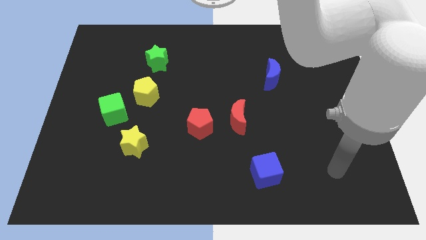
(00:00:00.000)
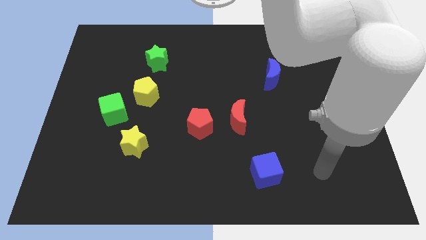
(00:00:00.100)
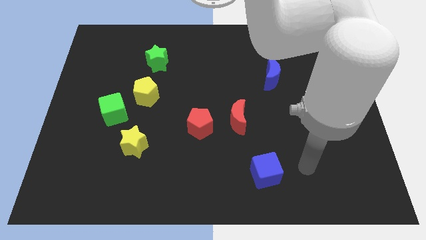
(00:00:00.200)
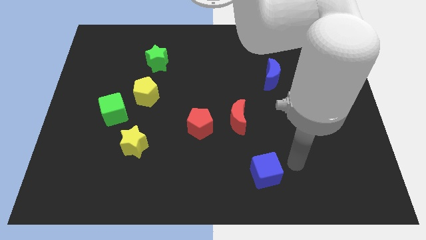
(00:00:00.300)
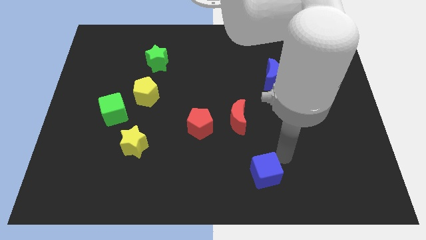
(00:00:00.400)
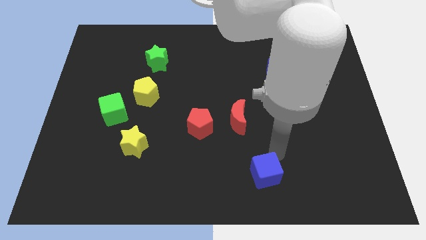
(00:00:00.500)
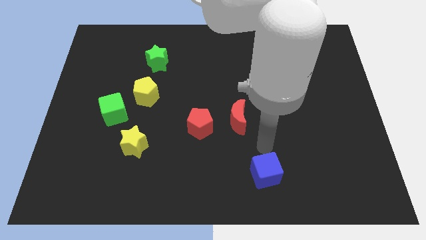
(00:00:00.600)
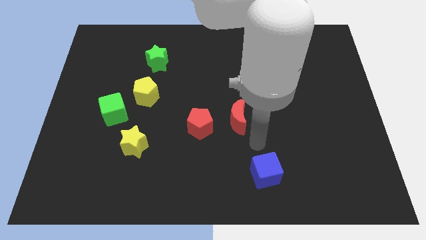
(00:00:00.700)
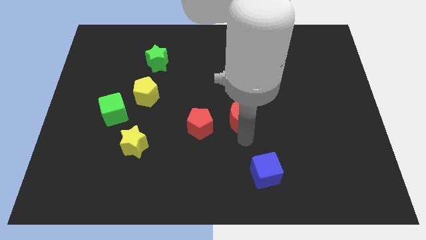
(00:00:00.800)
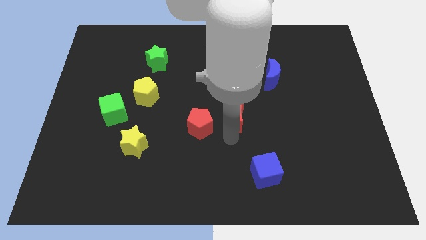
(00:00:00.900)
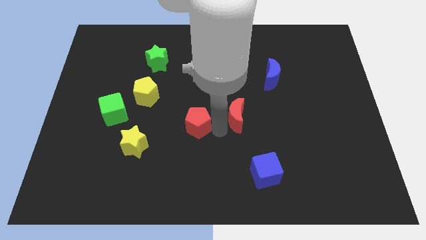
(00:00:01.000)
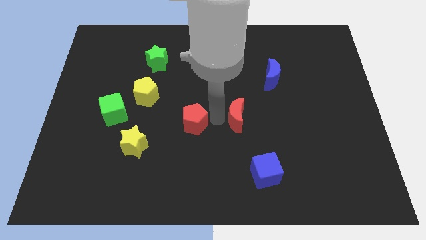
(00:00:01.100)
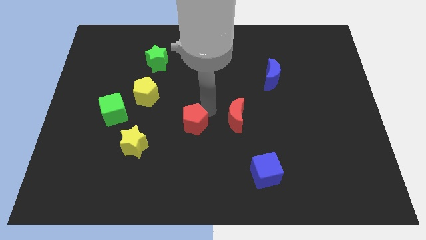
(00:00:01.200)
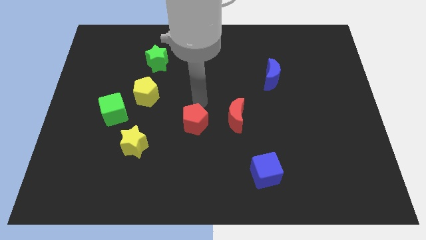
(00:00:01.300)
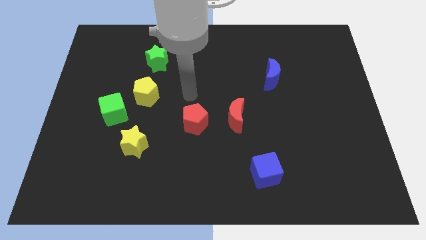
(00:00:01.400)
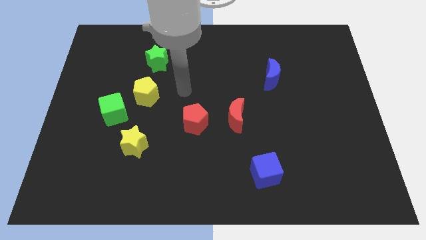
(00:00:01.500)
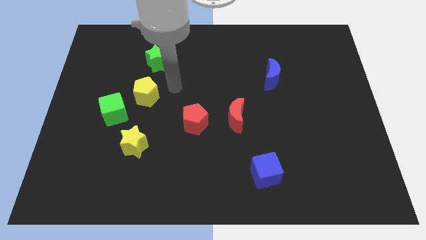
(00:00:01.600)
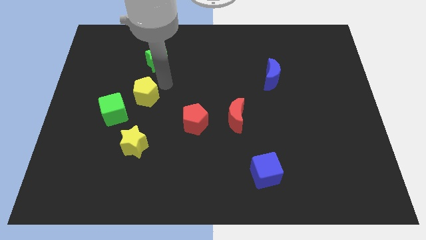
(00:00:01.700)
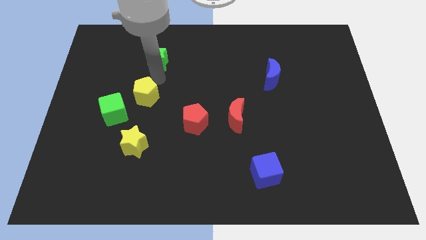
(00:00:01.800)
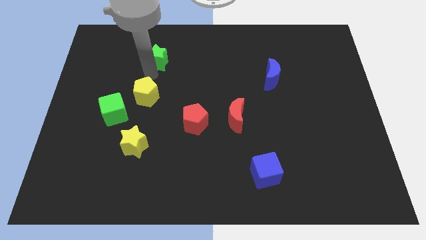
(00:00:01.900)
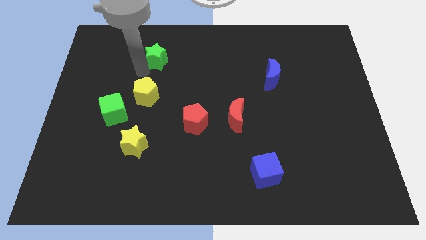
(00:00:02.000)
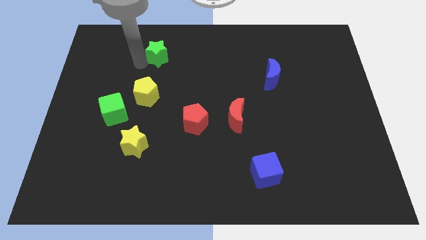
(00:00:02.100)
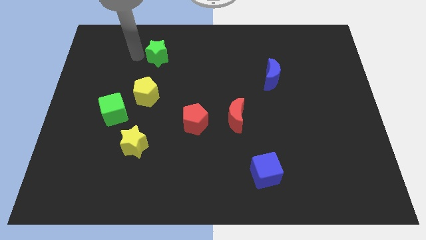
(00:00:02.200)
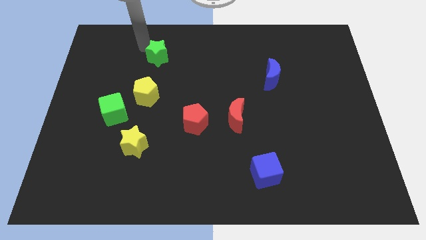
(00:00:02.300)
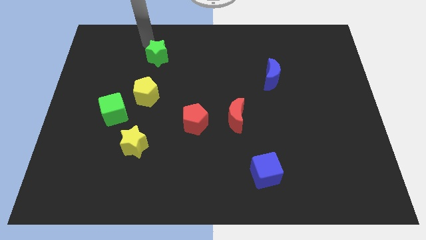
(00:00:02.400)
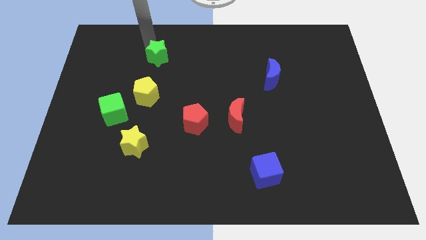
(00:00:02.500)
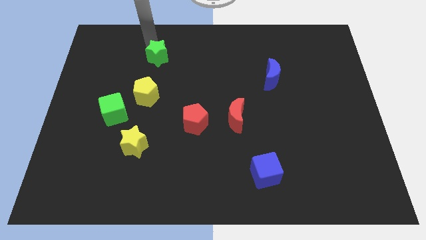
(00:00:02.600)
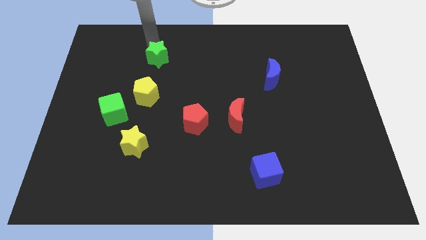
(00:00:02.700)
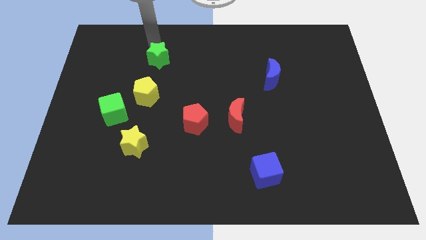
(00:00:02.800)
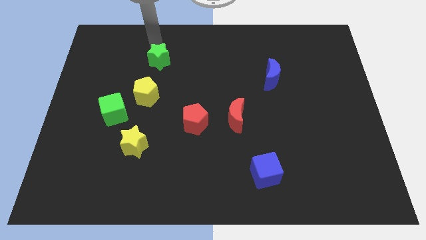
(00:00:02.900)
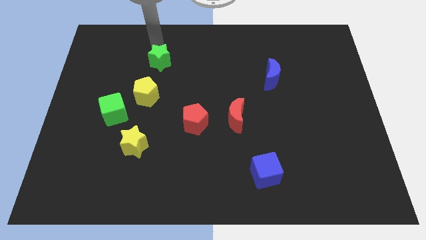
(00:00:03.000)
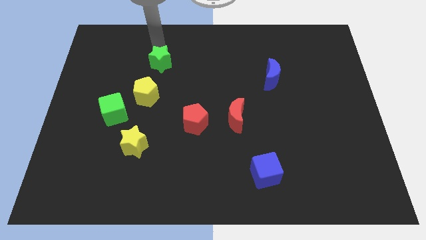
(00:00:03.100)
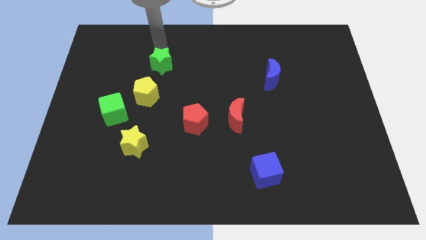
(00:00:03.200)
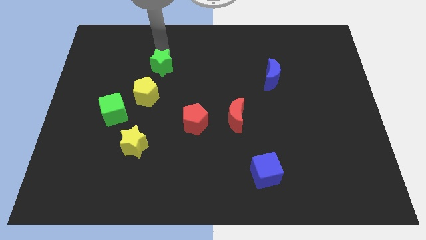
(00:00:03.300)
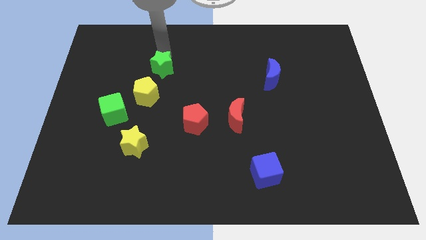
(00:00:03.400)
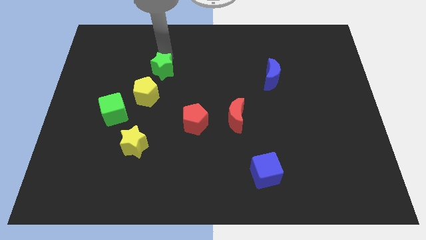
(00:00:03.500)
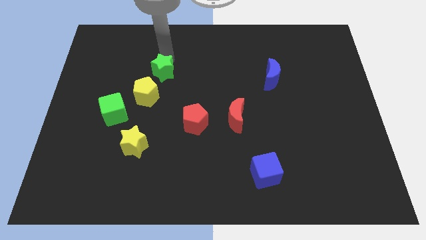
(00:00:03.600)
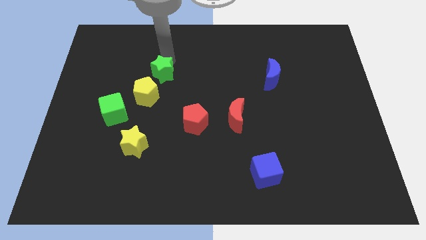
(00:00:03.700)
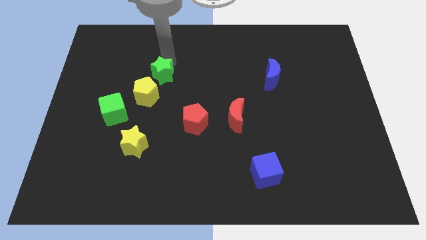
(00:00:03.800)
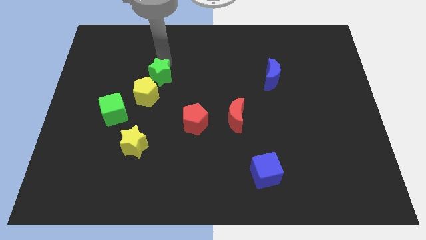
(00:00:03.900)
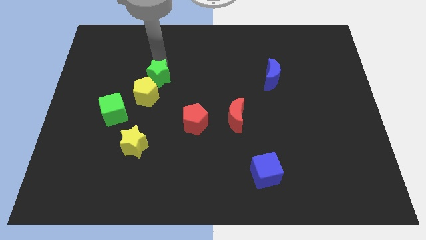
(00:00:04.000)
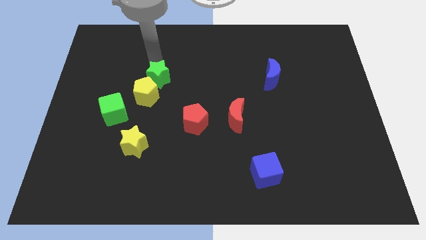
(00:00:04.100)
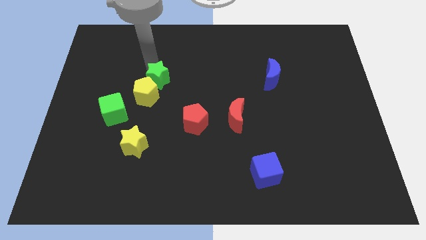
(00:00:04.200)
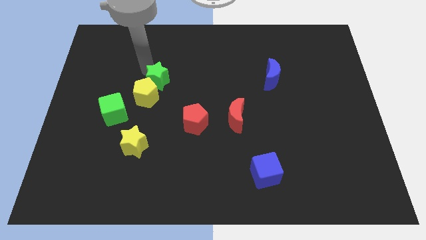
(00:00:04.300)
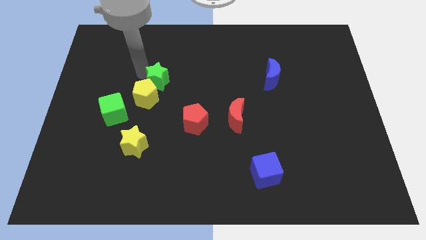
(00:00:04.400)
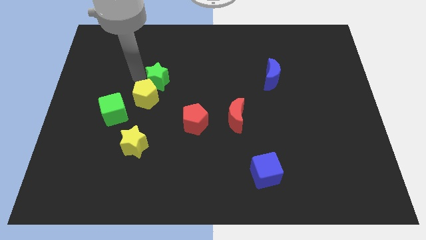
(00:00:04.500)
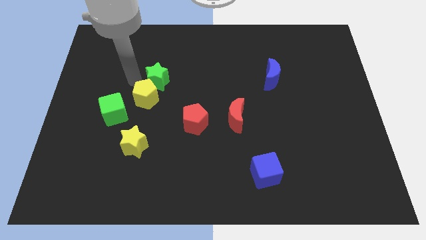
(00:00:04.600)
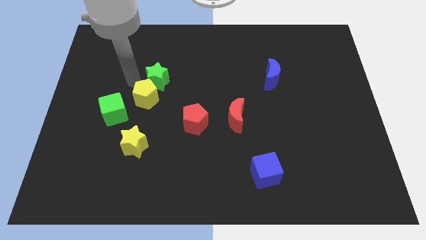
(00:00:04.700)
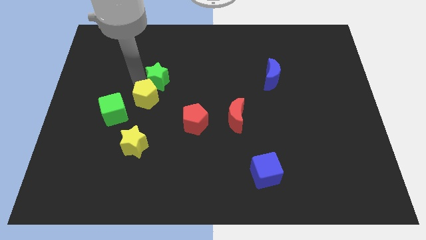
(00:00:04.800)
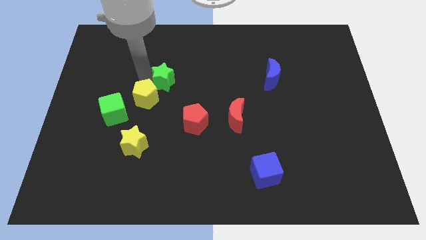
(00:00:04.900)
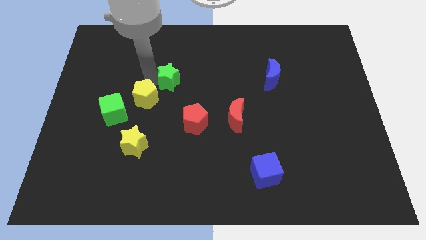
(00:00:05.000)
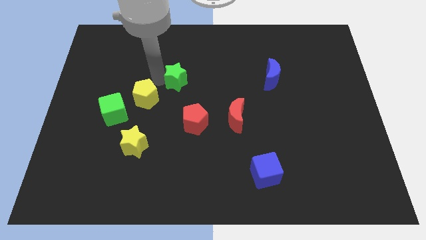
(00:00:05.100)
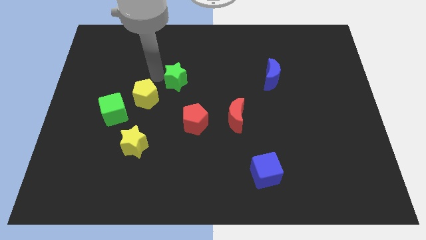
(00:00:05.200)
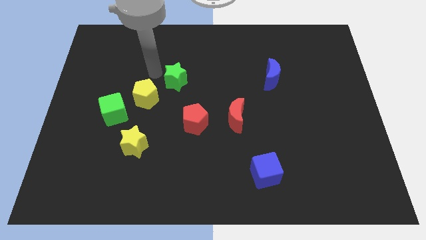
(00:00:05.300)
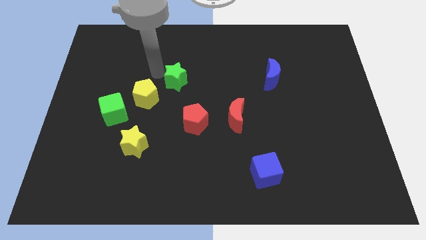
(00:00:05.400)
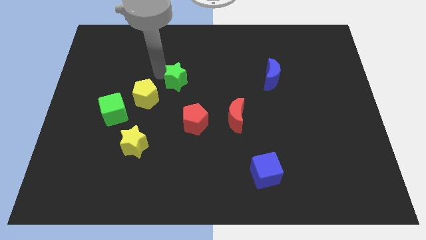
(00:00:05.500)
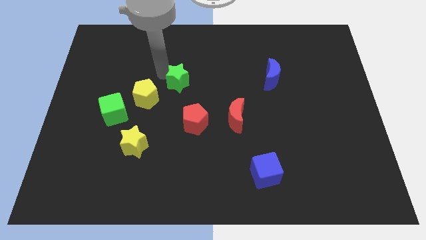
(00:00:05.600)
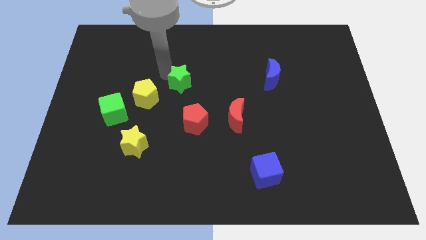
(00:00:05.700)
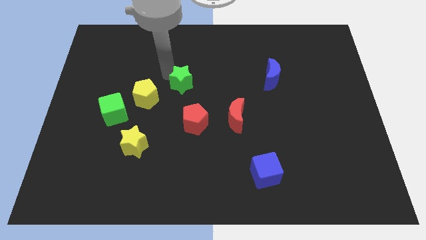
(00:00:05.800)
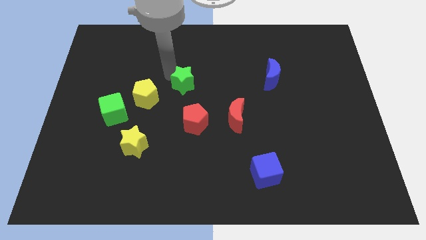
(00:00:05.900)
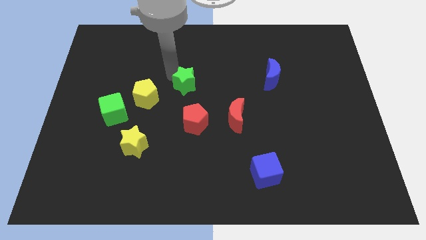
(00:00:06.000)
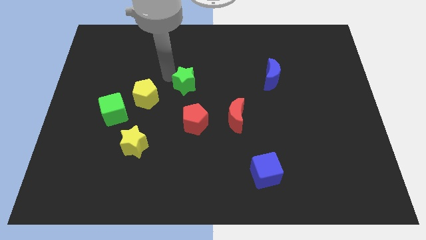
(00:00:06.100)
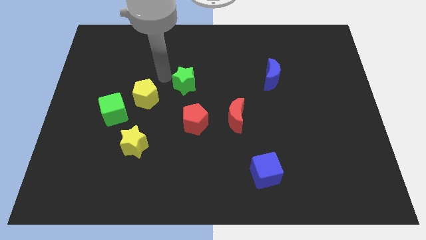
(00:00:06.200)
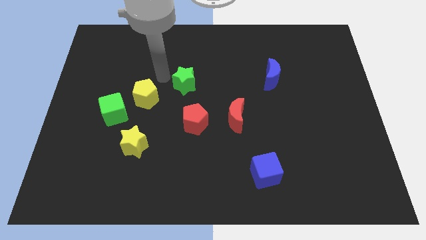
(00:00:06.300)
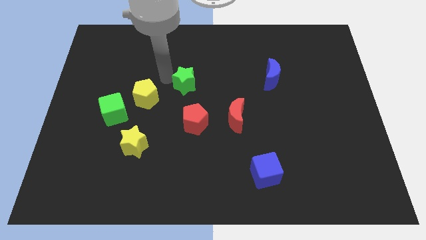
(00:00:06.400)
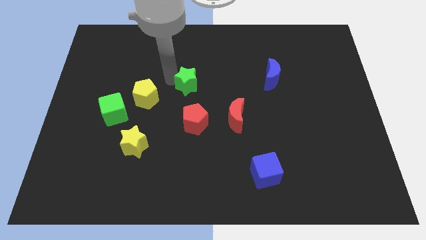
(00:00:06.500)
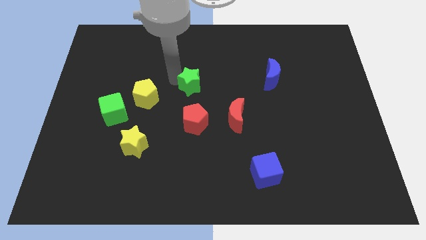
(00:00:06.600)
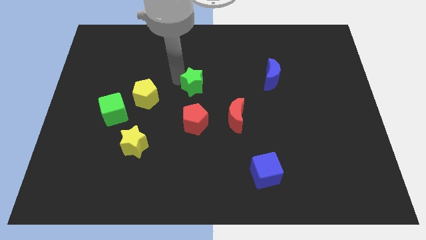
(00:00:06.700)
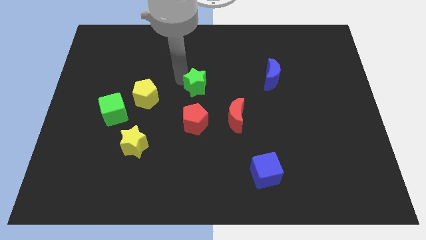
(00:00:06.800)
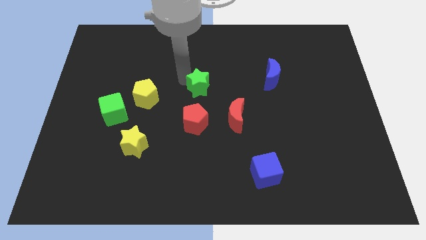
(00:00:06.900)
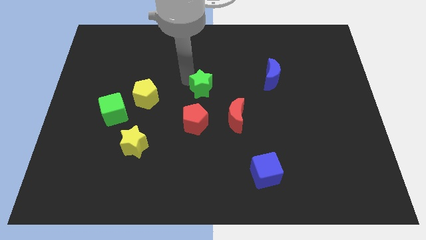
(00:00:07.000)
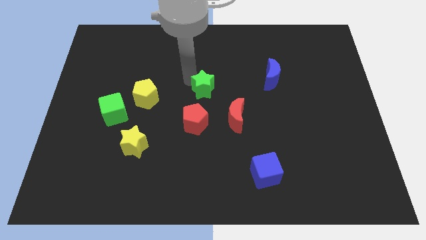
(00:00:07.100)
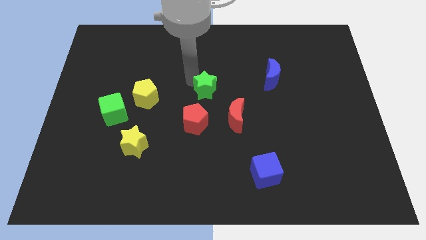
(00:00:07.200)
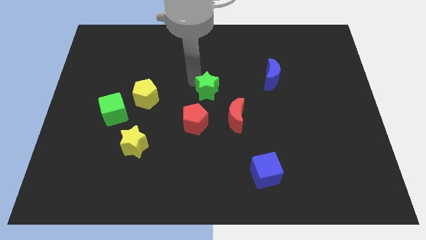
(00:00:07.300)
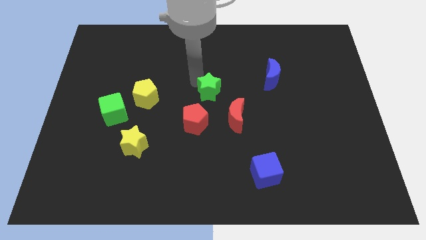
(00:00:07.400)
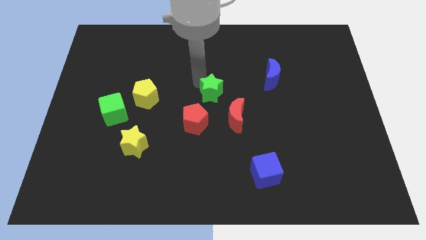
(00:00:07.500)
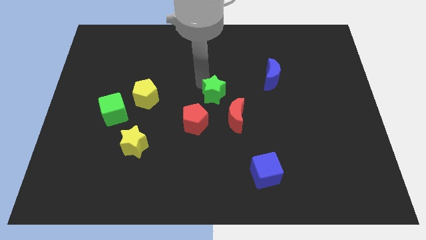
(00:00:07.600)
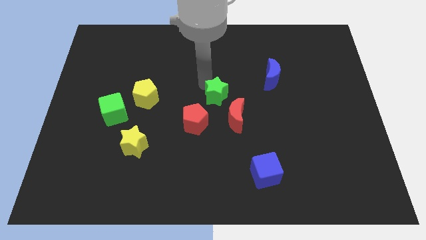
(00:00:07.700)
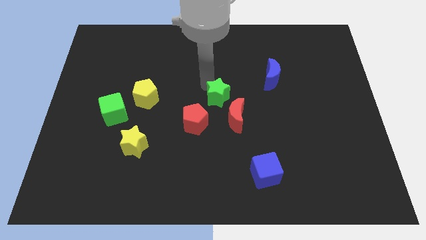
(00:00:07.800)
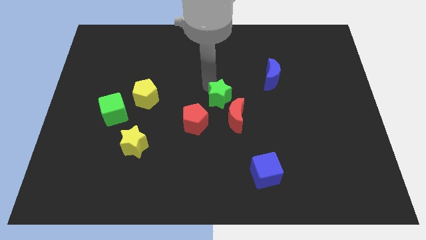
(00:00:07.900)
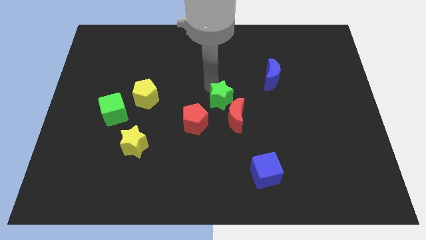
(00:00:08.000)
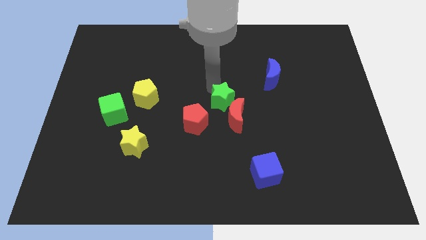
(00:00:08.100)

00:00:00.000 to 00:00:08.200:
move the green star close to the red moon
